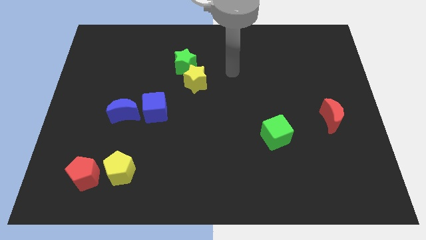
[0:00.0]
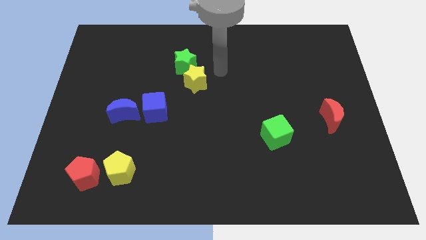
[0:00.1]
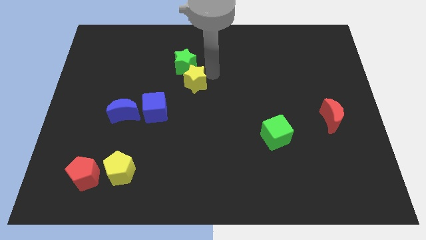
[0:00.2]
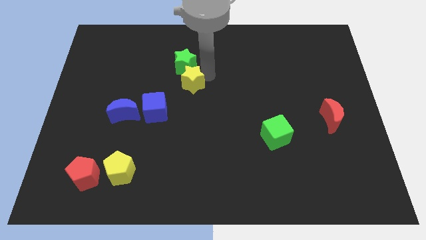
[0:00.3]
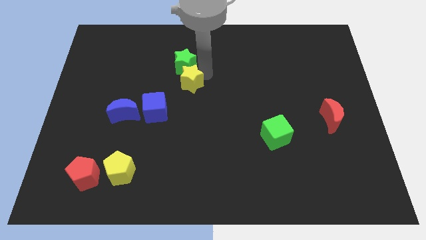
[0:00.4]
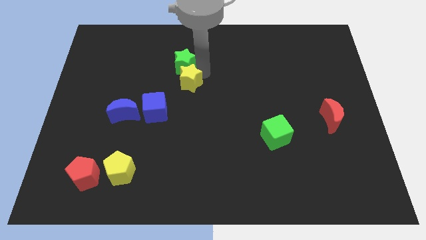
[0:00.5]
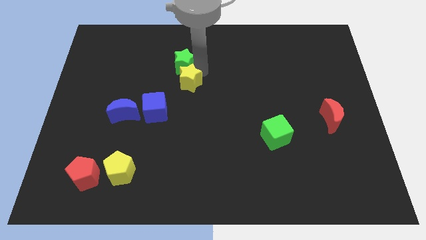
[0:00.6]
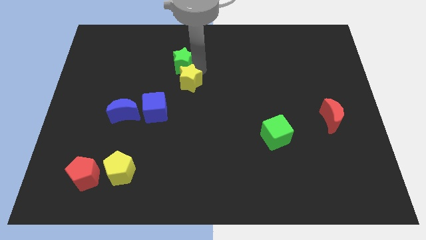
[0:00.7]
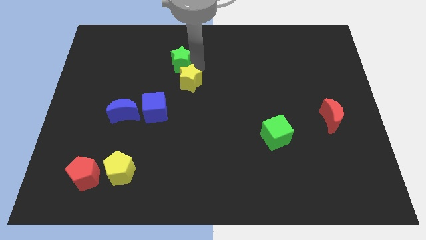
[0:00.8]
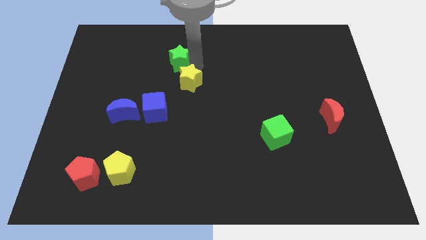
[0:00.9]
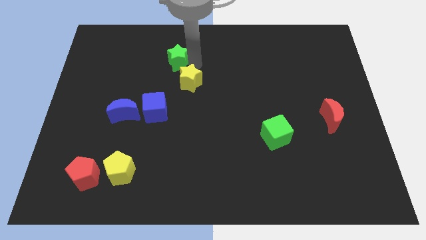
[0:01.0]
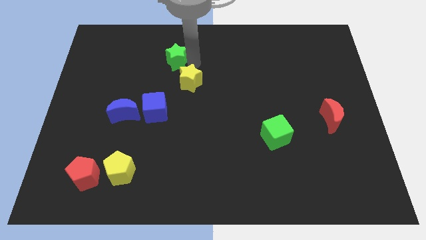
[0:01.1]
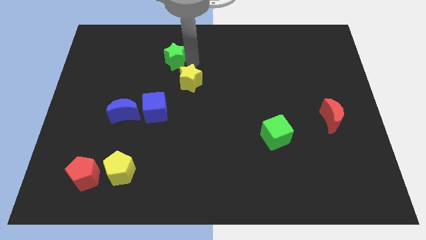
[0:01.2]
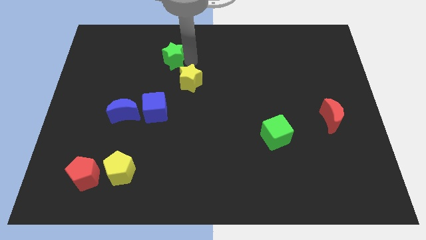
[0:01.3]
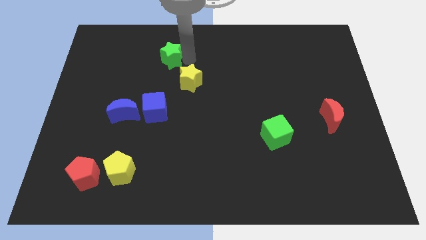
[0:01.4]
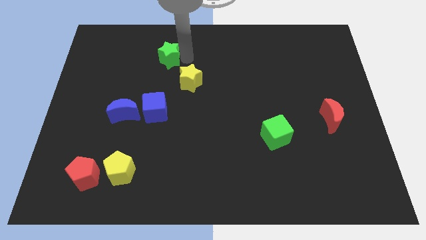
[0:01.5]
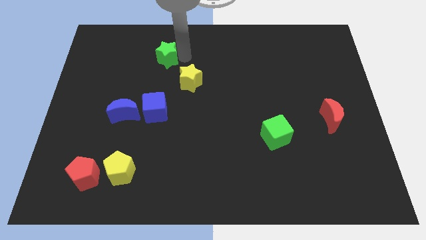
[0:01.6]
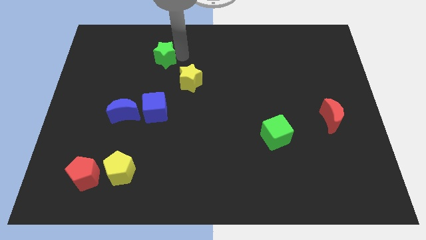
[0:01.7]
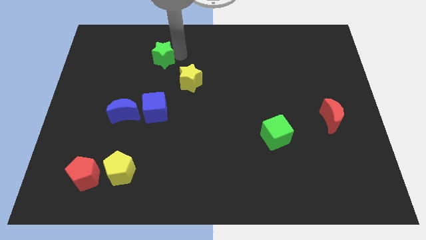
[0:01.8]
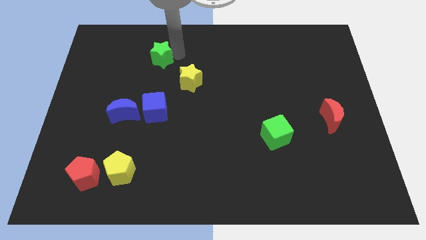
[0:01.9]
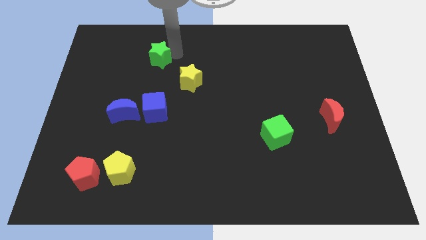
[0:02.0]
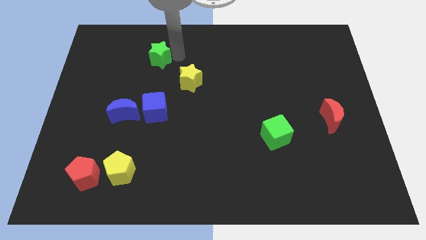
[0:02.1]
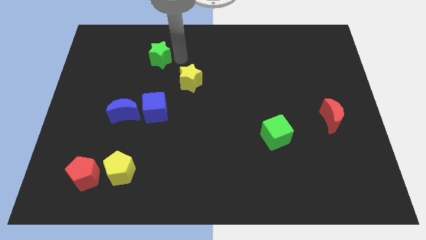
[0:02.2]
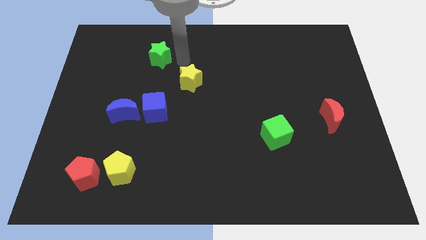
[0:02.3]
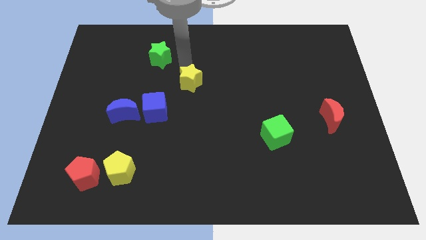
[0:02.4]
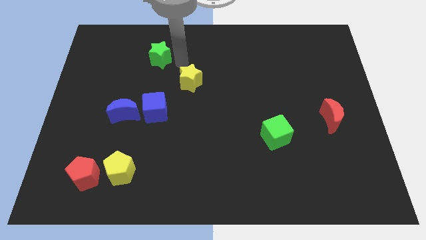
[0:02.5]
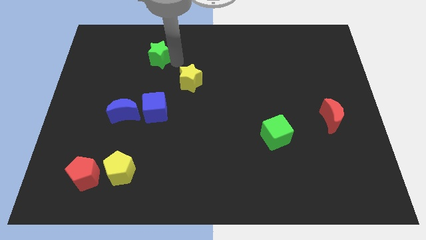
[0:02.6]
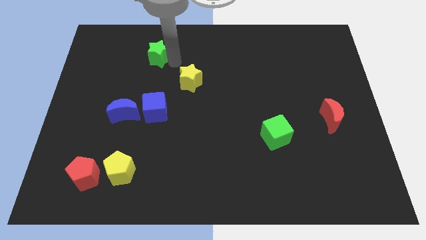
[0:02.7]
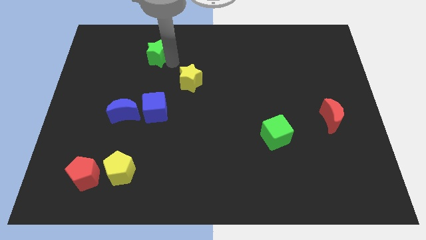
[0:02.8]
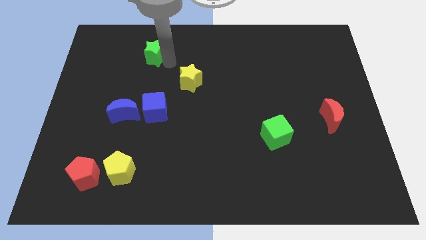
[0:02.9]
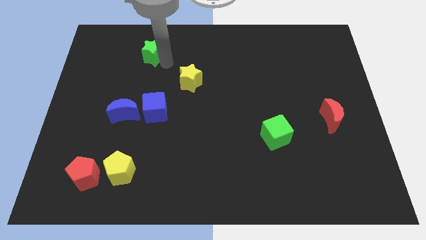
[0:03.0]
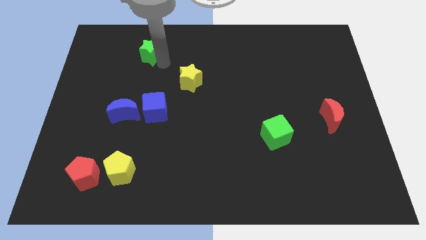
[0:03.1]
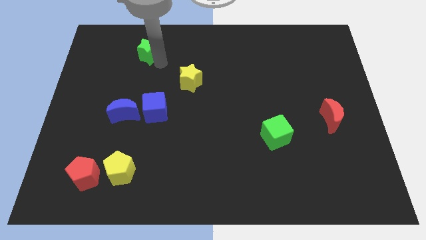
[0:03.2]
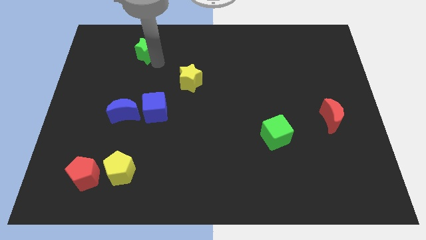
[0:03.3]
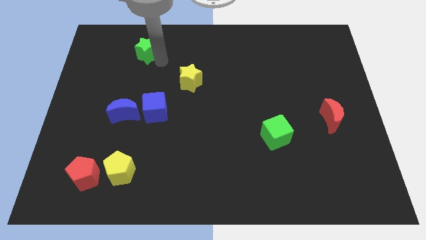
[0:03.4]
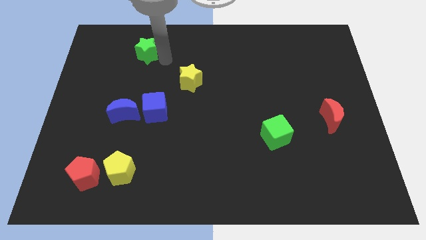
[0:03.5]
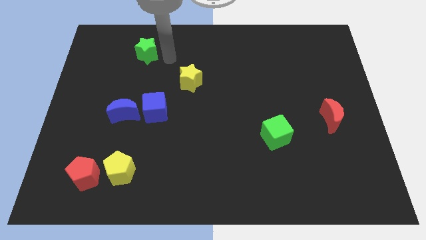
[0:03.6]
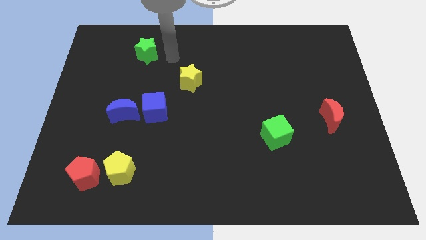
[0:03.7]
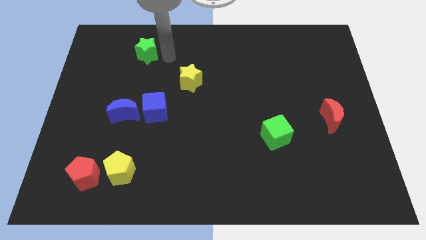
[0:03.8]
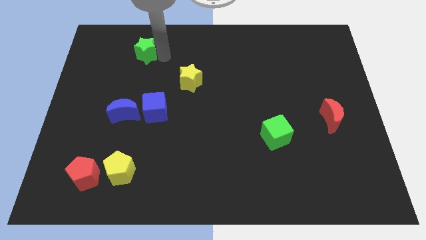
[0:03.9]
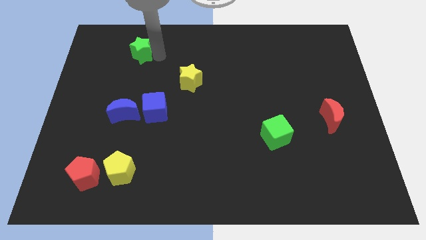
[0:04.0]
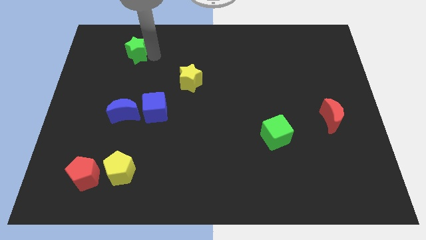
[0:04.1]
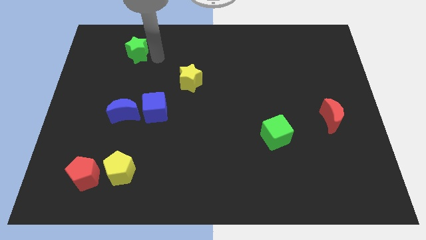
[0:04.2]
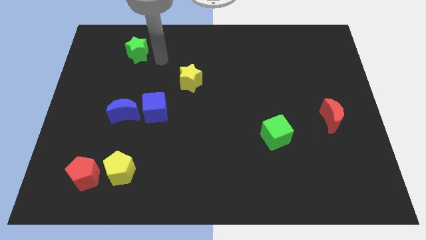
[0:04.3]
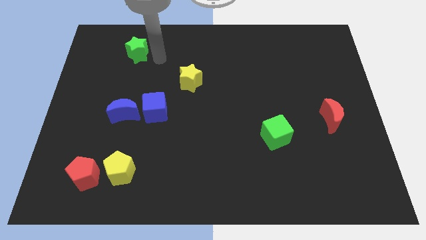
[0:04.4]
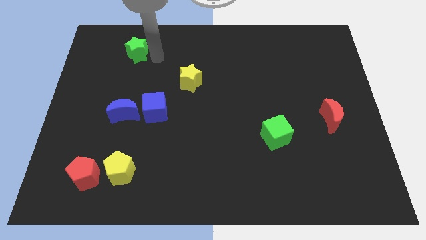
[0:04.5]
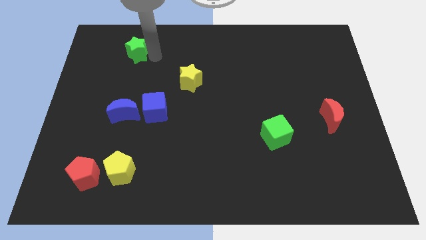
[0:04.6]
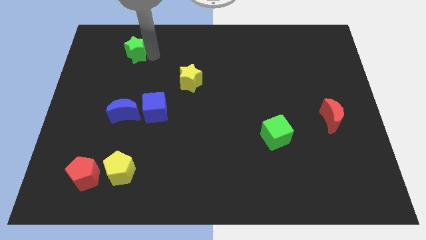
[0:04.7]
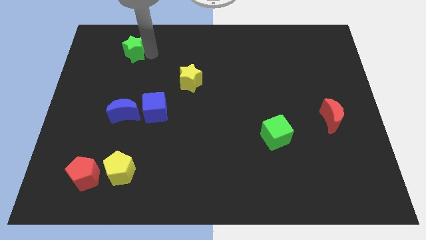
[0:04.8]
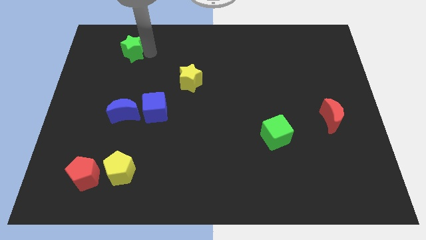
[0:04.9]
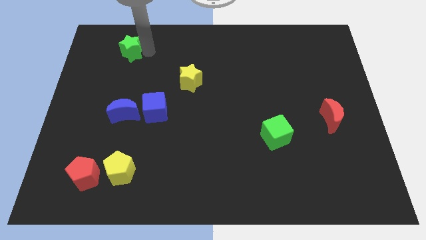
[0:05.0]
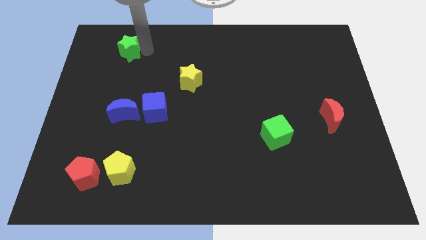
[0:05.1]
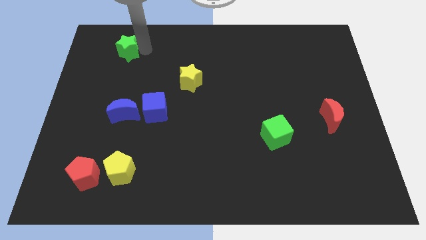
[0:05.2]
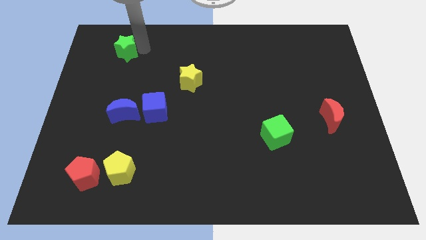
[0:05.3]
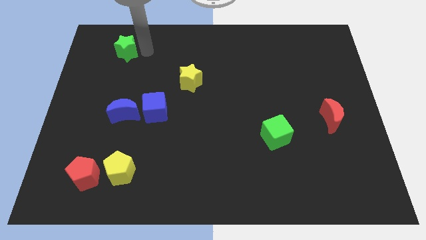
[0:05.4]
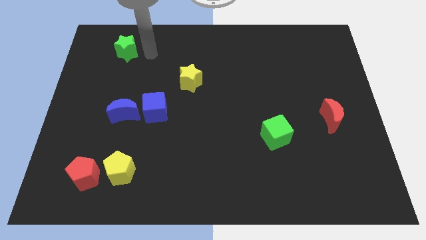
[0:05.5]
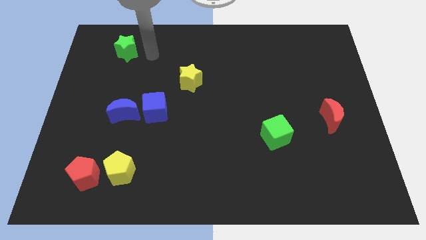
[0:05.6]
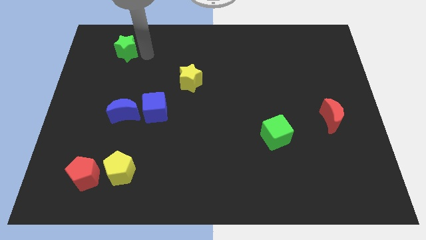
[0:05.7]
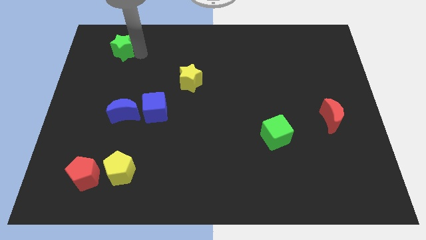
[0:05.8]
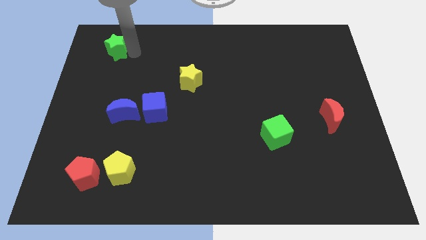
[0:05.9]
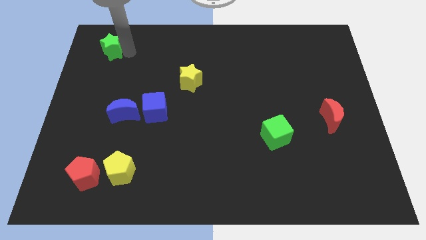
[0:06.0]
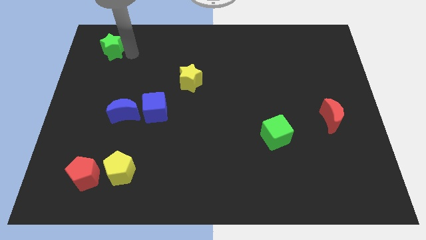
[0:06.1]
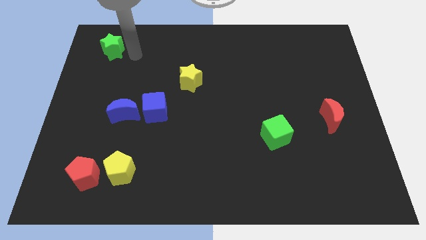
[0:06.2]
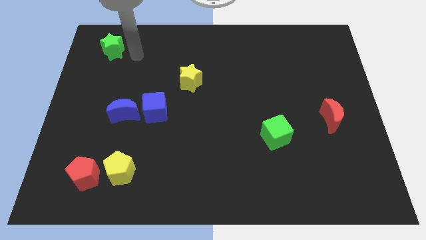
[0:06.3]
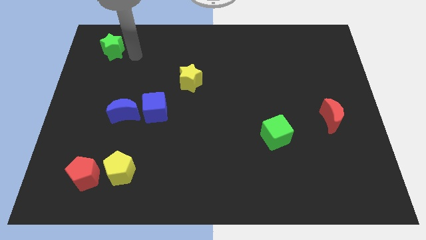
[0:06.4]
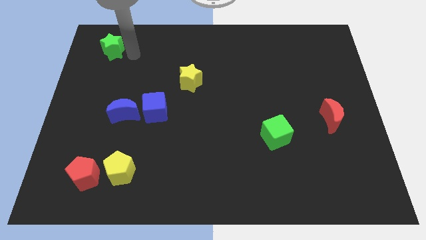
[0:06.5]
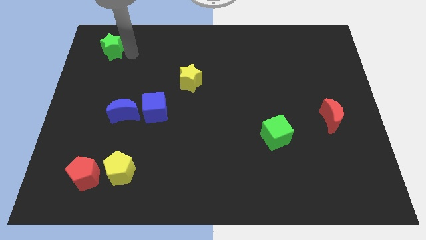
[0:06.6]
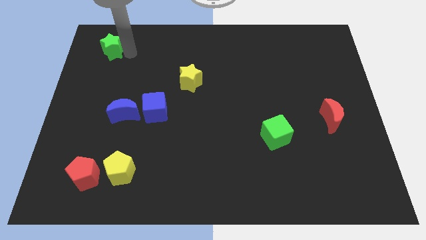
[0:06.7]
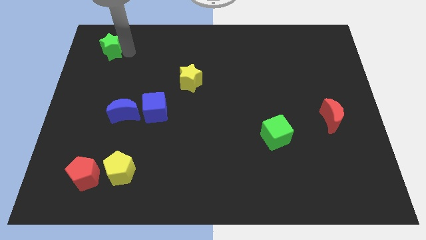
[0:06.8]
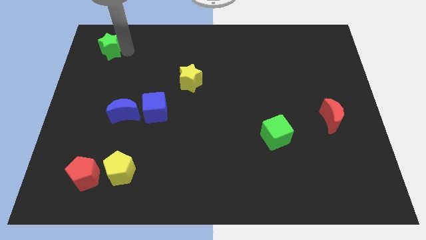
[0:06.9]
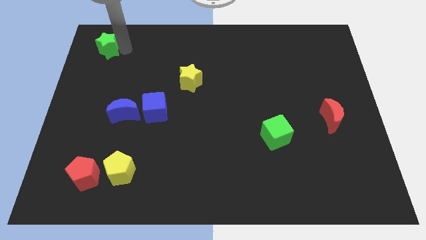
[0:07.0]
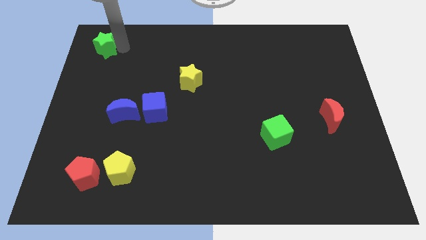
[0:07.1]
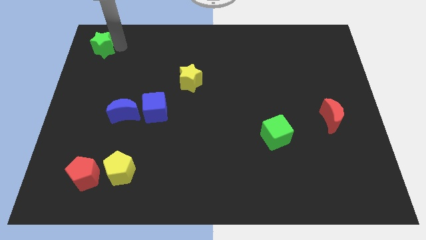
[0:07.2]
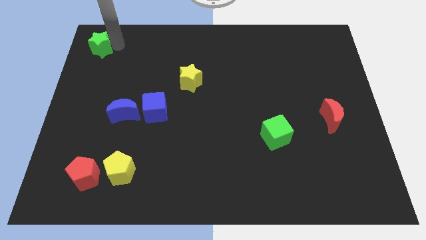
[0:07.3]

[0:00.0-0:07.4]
move the green star to the top left corner
